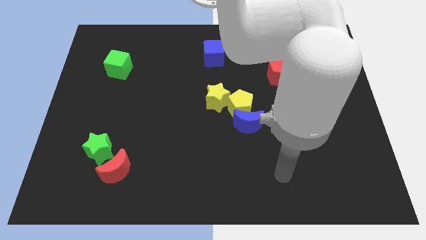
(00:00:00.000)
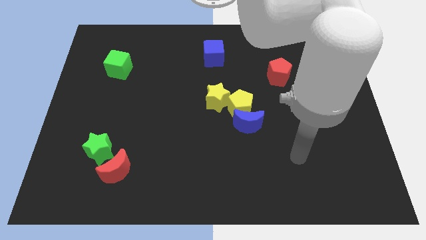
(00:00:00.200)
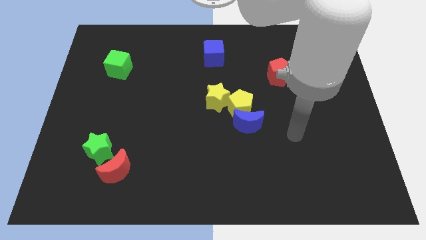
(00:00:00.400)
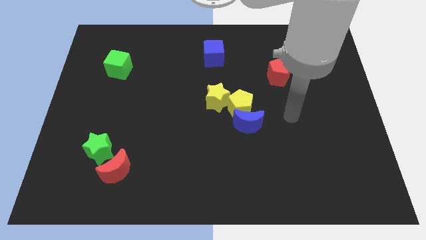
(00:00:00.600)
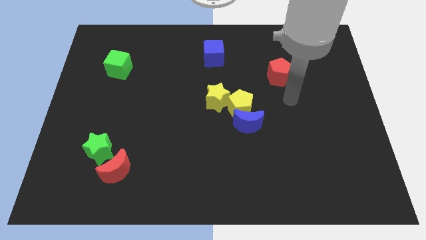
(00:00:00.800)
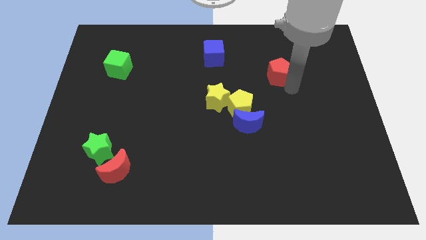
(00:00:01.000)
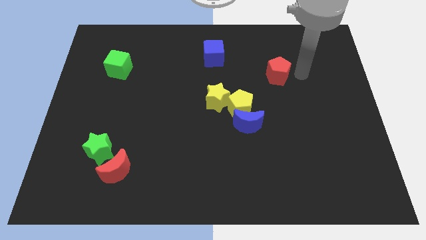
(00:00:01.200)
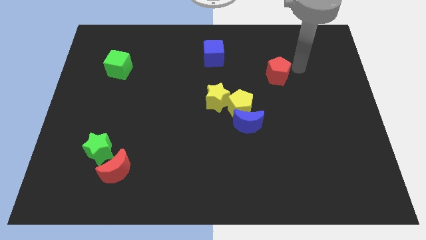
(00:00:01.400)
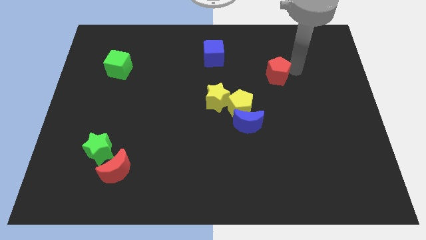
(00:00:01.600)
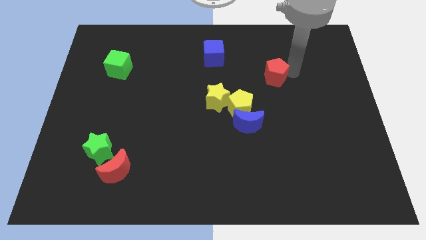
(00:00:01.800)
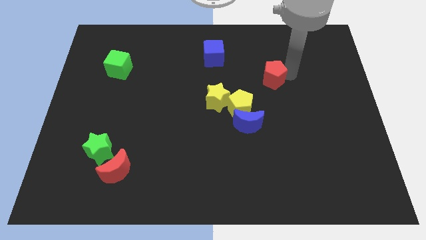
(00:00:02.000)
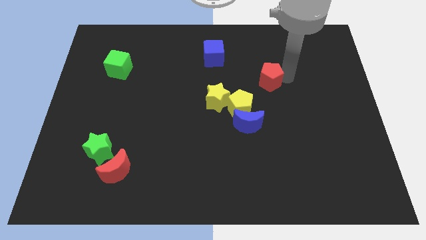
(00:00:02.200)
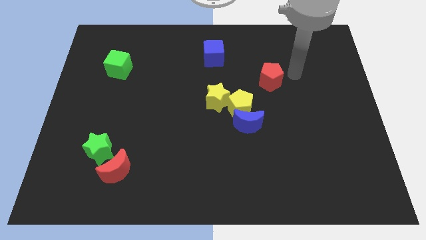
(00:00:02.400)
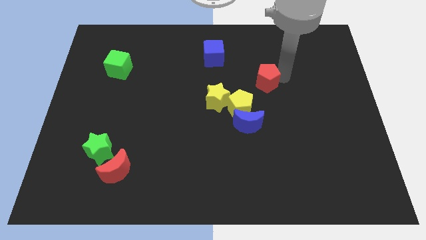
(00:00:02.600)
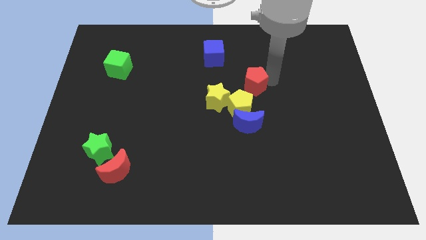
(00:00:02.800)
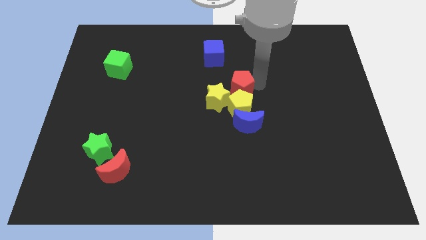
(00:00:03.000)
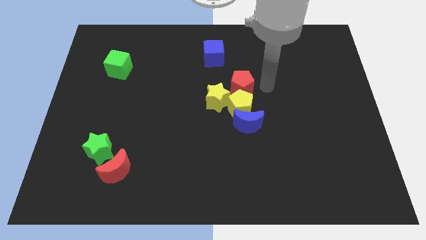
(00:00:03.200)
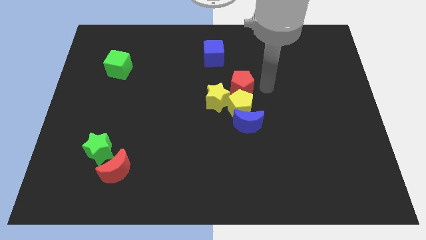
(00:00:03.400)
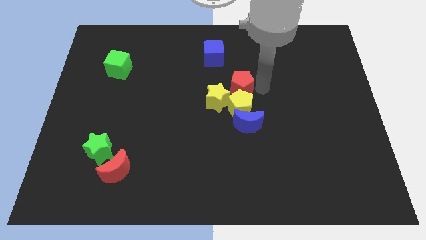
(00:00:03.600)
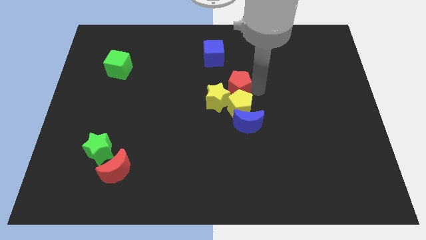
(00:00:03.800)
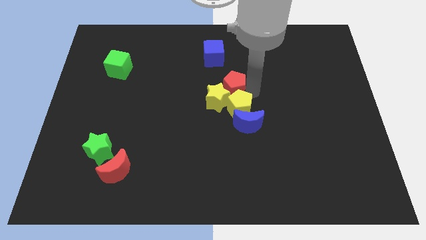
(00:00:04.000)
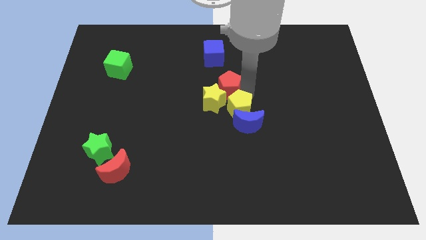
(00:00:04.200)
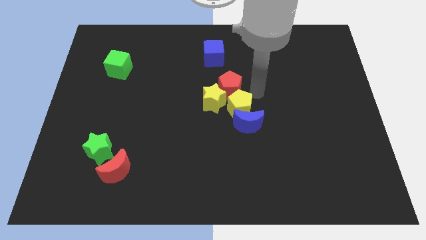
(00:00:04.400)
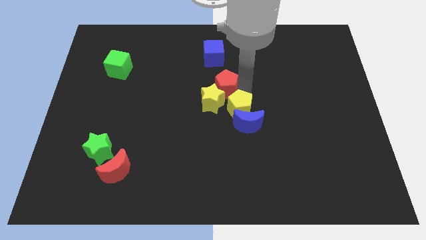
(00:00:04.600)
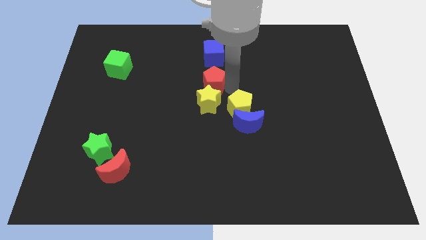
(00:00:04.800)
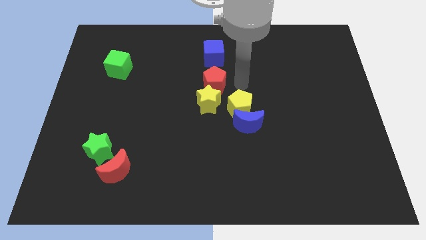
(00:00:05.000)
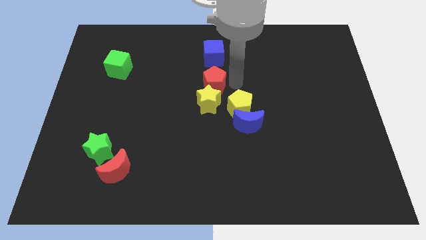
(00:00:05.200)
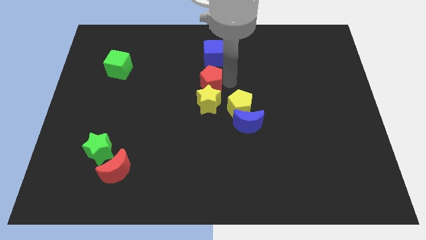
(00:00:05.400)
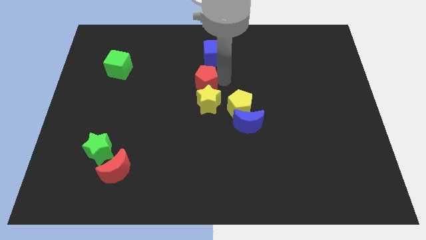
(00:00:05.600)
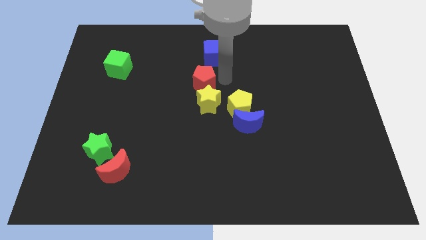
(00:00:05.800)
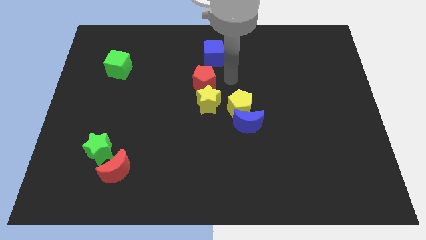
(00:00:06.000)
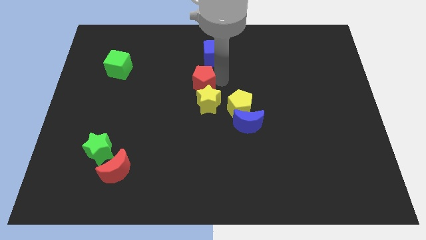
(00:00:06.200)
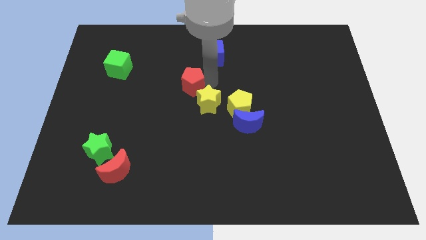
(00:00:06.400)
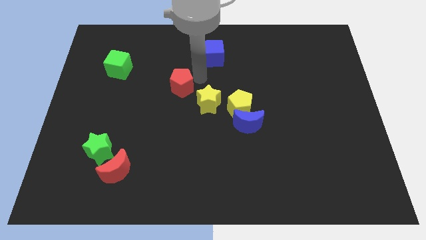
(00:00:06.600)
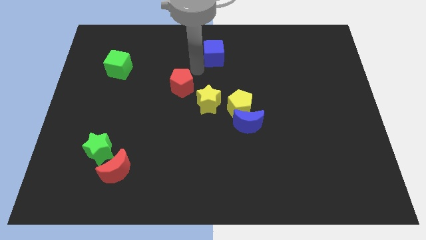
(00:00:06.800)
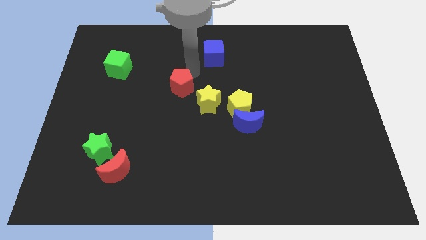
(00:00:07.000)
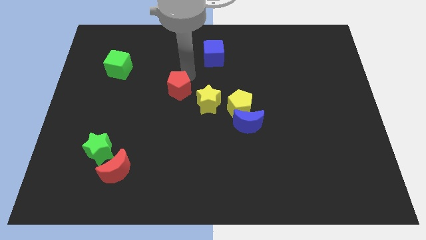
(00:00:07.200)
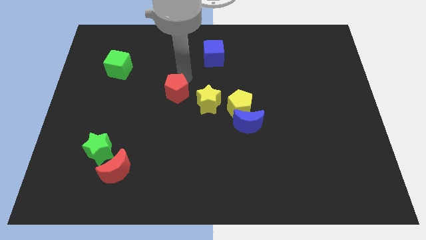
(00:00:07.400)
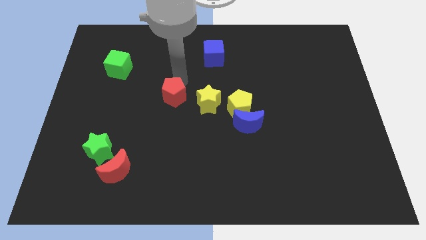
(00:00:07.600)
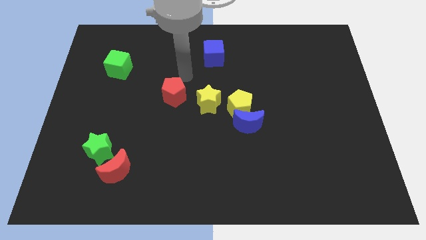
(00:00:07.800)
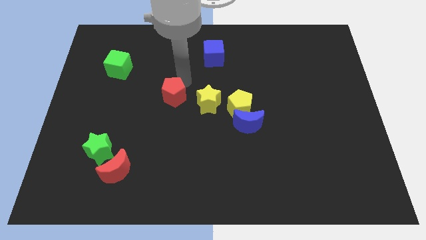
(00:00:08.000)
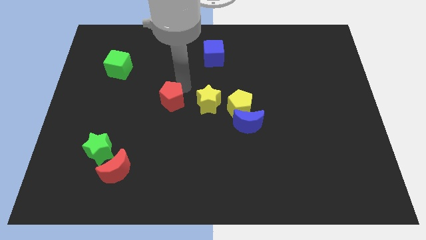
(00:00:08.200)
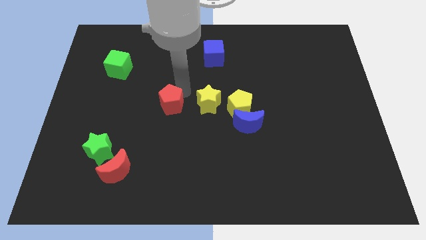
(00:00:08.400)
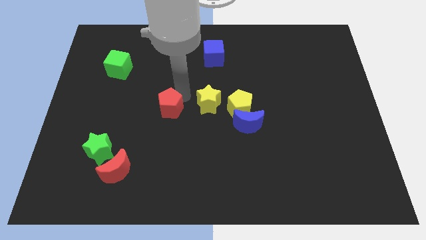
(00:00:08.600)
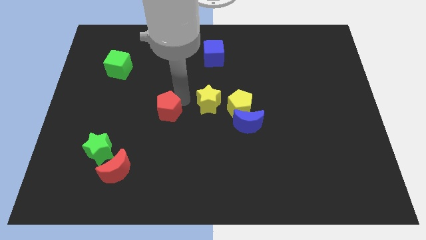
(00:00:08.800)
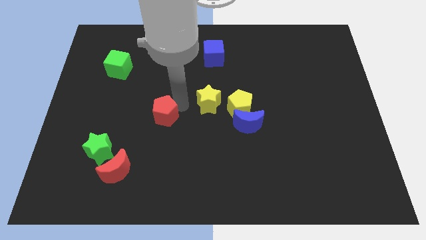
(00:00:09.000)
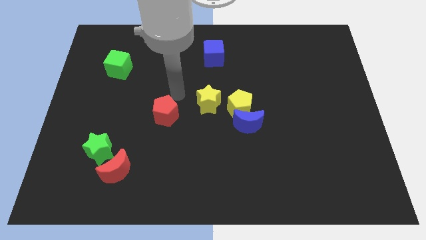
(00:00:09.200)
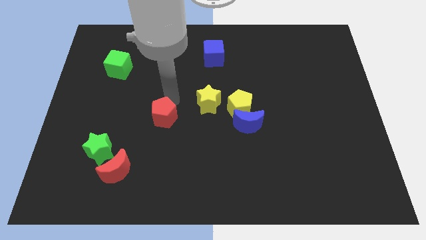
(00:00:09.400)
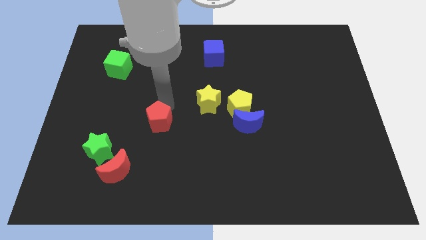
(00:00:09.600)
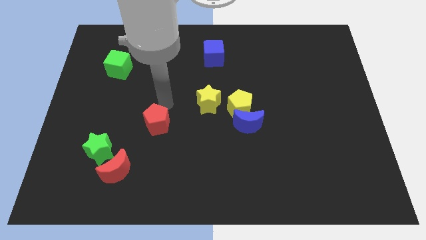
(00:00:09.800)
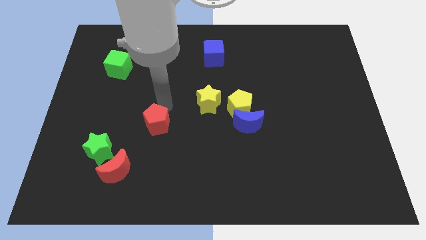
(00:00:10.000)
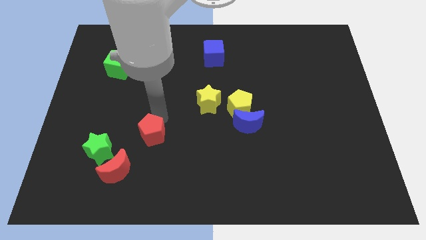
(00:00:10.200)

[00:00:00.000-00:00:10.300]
put the red pentagon to the right side of the green star

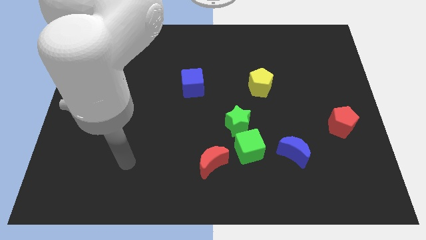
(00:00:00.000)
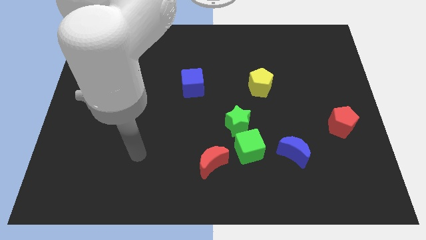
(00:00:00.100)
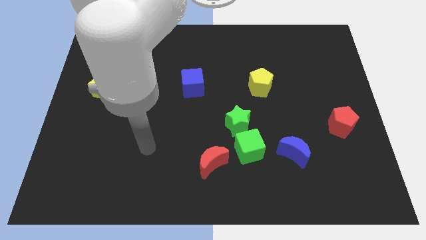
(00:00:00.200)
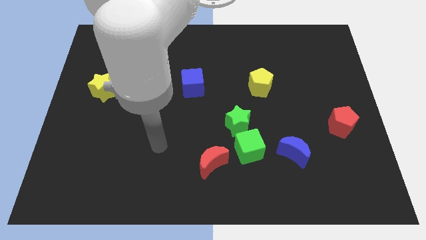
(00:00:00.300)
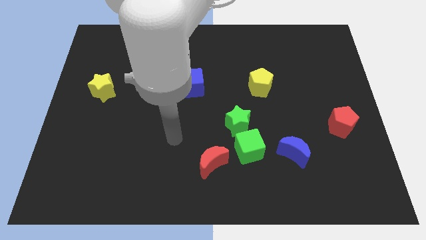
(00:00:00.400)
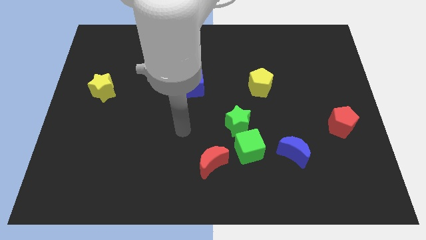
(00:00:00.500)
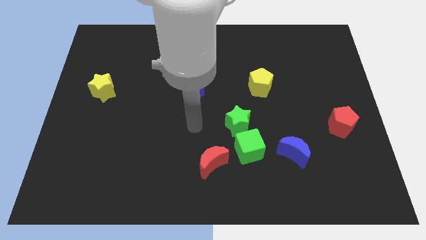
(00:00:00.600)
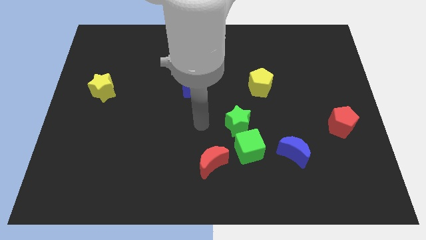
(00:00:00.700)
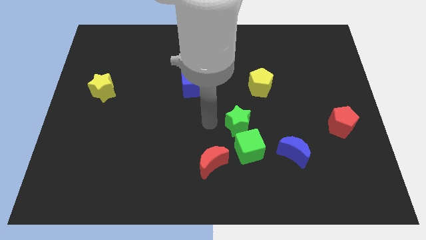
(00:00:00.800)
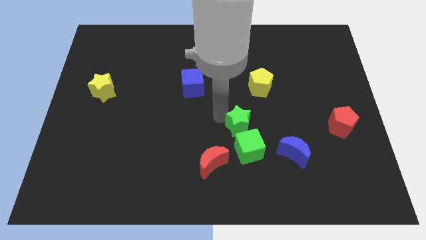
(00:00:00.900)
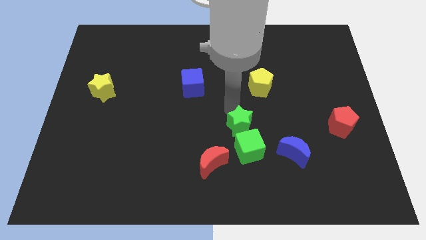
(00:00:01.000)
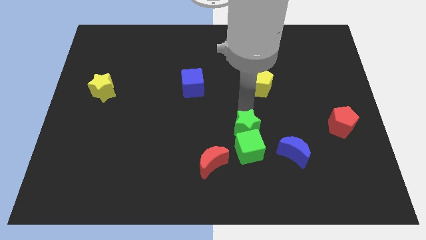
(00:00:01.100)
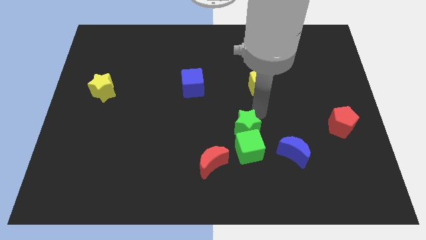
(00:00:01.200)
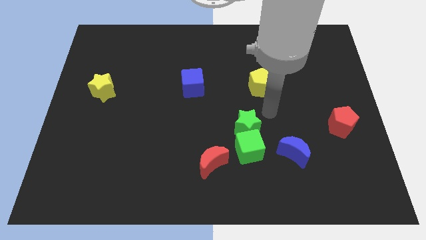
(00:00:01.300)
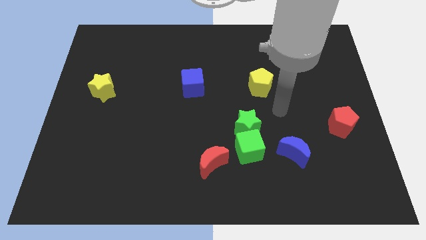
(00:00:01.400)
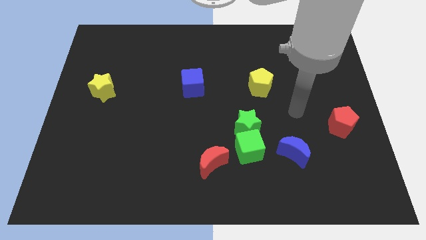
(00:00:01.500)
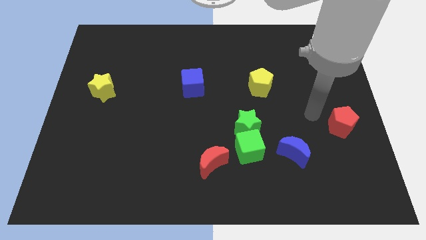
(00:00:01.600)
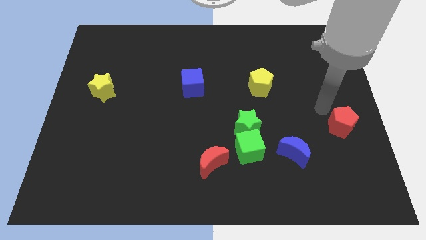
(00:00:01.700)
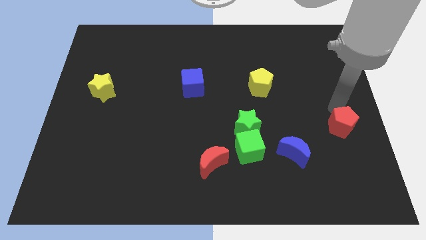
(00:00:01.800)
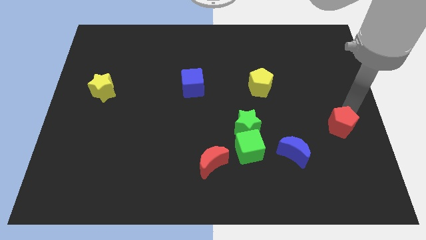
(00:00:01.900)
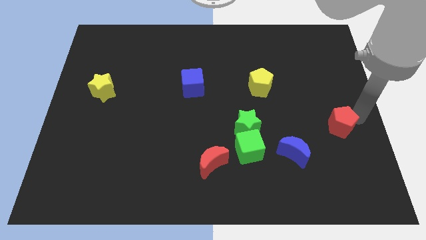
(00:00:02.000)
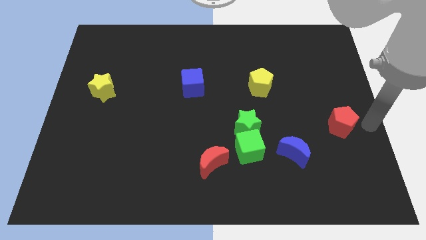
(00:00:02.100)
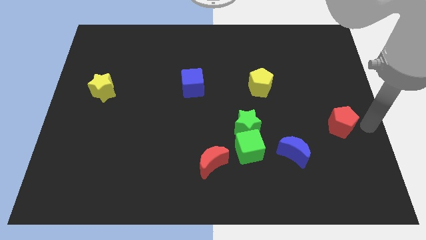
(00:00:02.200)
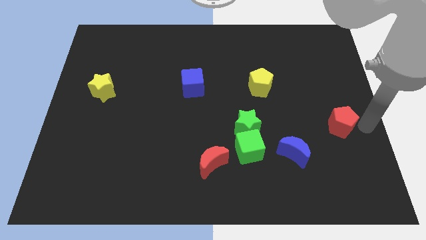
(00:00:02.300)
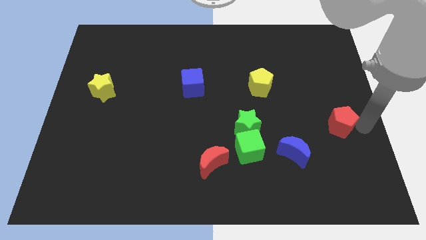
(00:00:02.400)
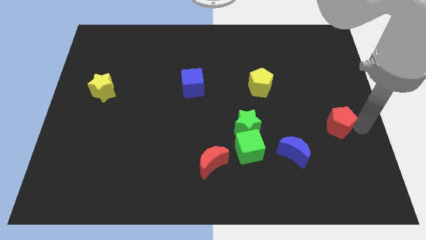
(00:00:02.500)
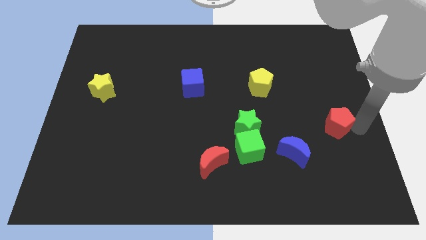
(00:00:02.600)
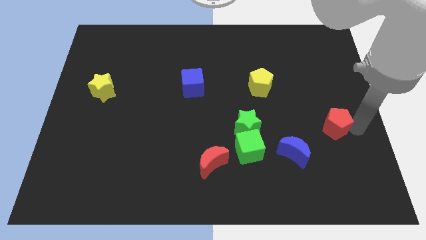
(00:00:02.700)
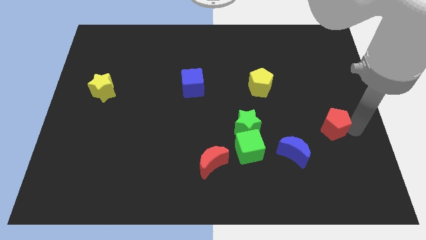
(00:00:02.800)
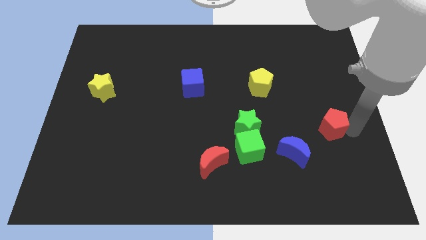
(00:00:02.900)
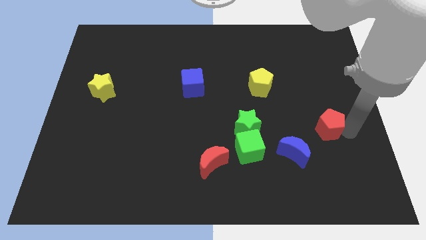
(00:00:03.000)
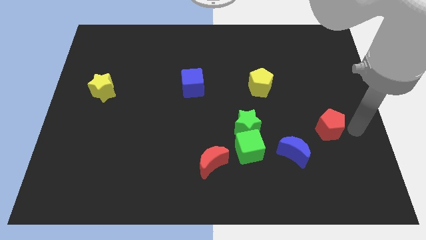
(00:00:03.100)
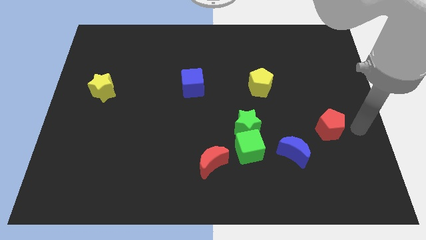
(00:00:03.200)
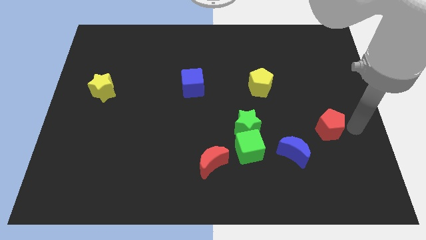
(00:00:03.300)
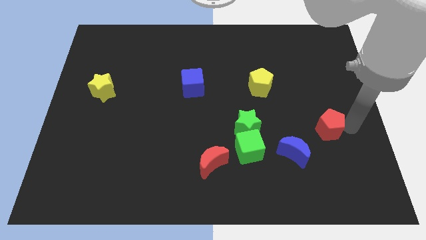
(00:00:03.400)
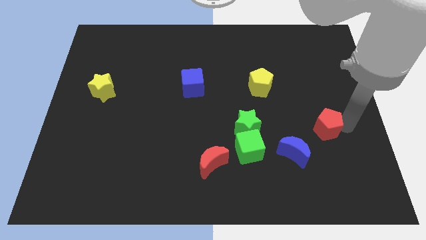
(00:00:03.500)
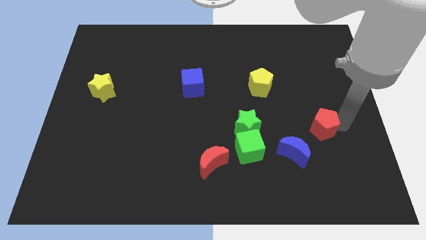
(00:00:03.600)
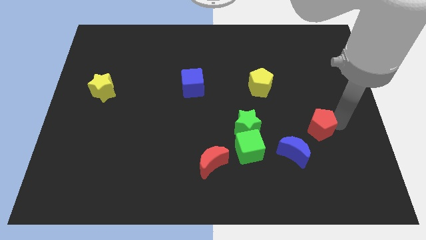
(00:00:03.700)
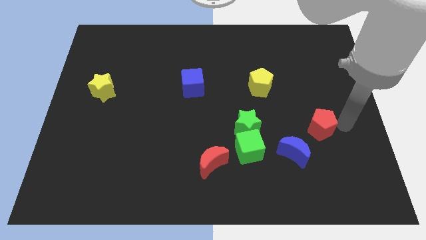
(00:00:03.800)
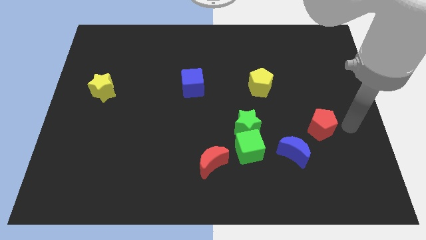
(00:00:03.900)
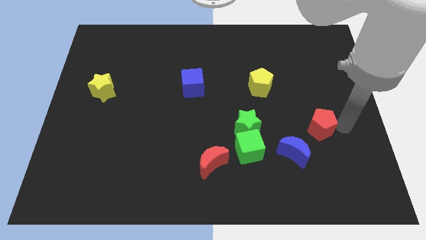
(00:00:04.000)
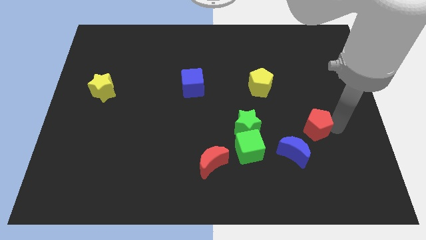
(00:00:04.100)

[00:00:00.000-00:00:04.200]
put the red pentagon right of the green star
